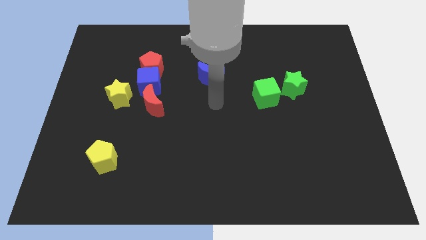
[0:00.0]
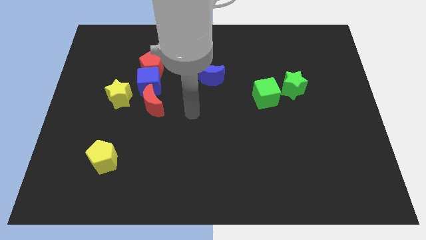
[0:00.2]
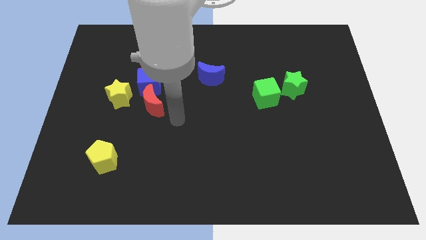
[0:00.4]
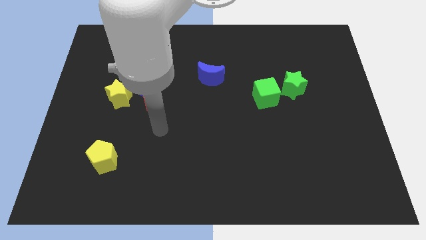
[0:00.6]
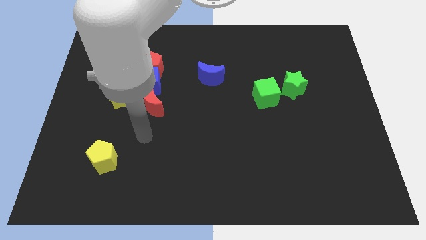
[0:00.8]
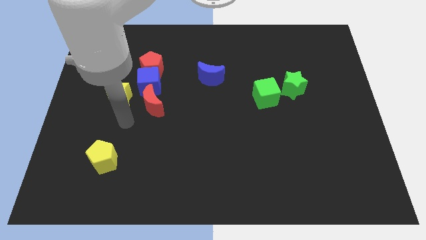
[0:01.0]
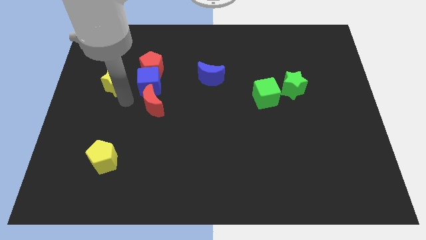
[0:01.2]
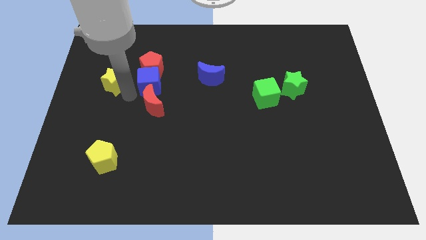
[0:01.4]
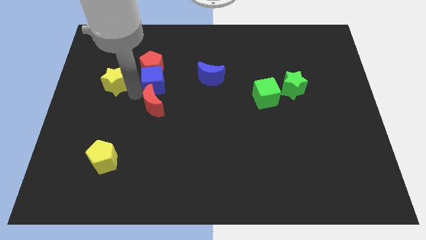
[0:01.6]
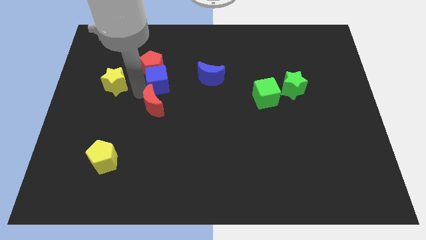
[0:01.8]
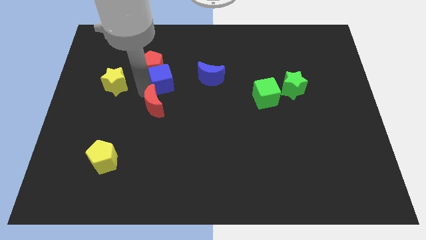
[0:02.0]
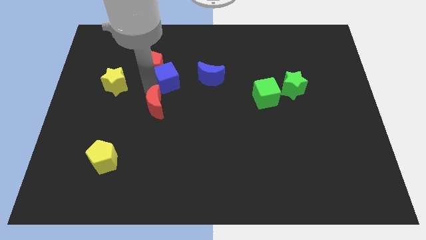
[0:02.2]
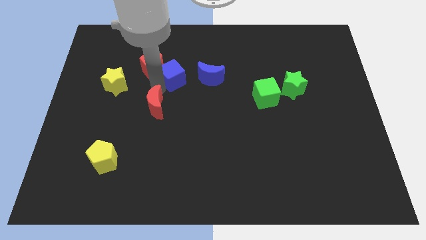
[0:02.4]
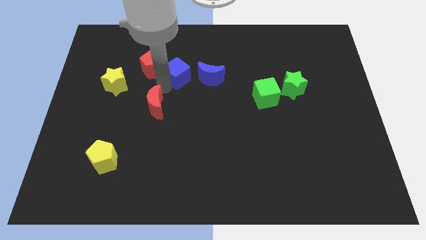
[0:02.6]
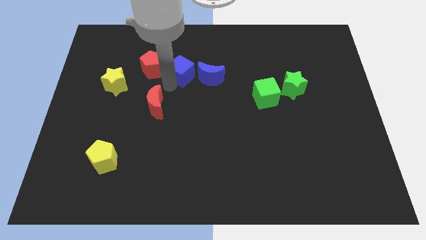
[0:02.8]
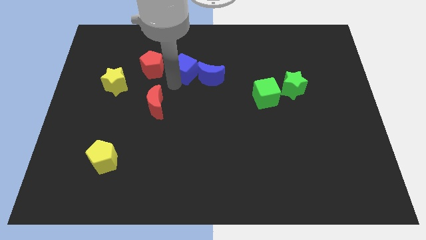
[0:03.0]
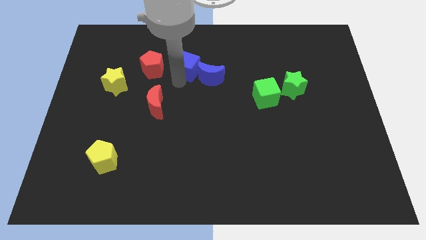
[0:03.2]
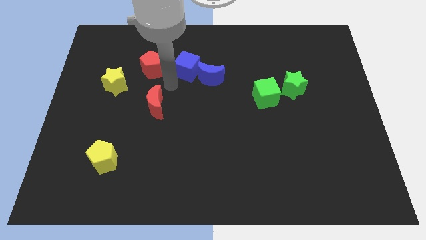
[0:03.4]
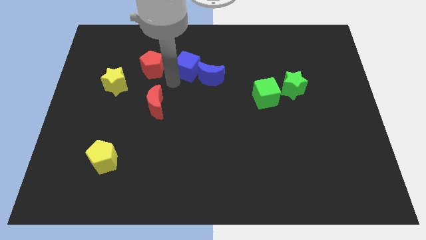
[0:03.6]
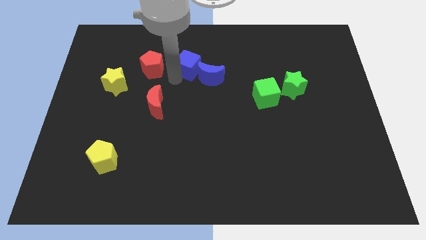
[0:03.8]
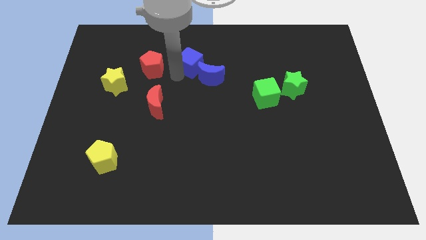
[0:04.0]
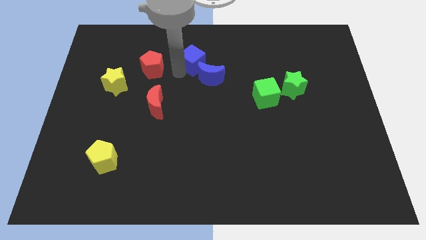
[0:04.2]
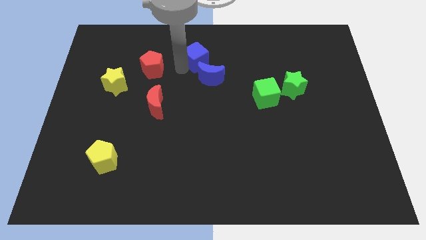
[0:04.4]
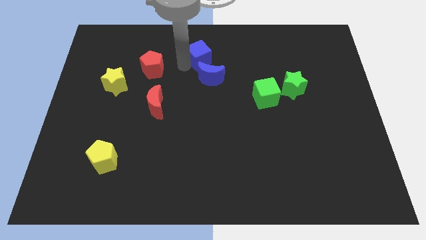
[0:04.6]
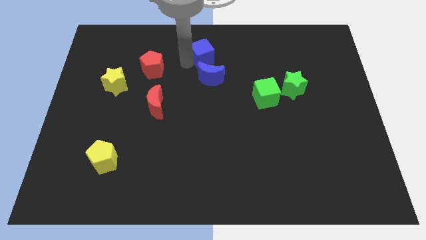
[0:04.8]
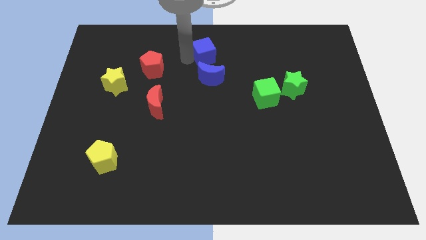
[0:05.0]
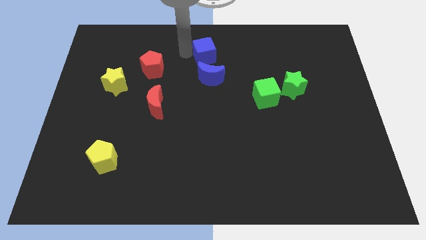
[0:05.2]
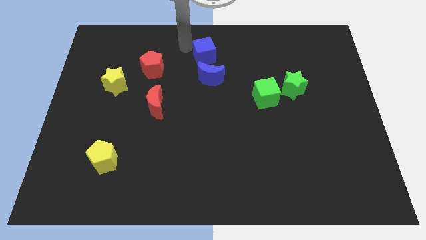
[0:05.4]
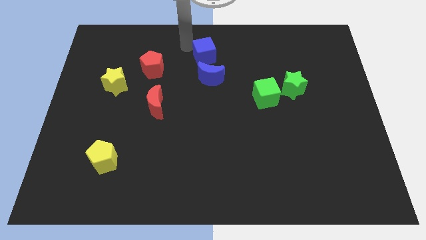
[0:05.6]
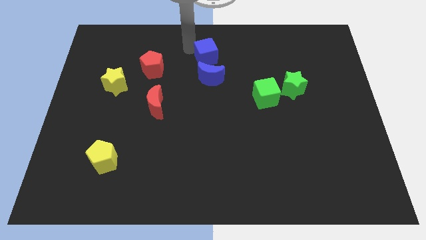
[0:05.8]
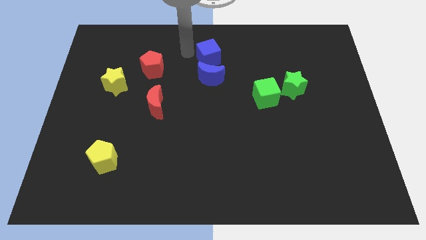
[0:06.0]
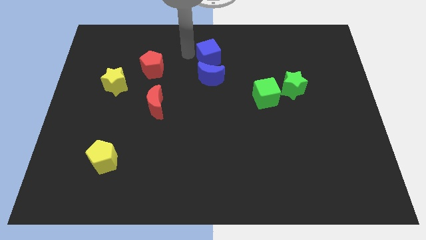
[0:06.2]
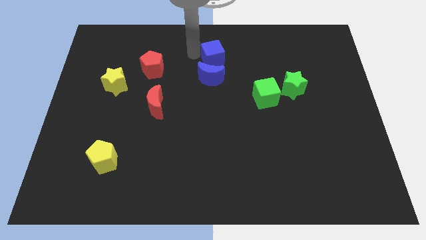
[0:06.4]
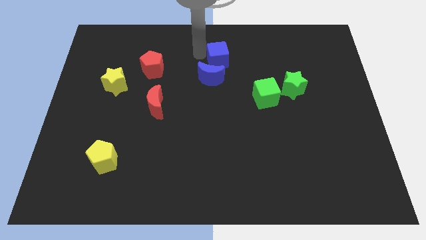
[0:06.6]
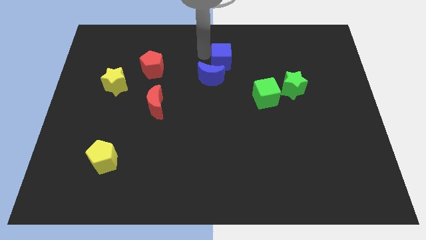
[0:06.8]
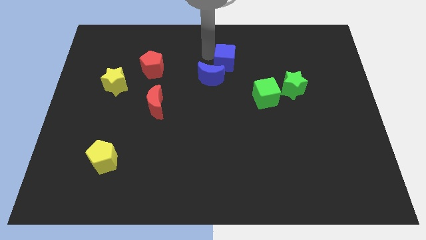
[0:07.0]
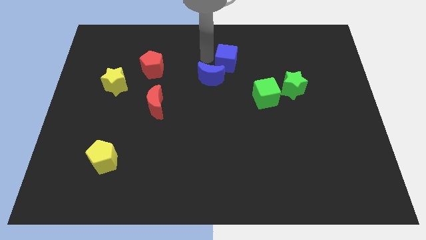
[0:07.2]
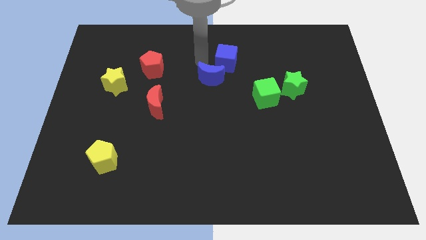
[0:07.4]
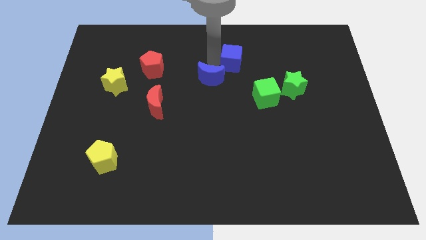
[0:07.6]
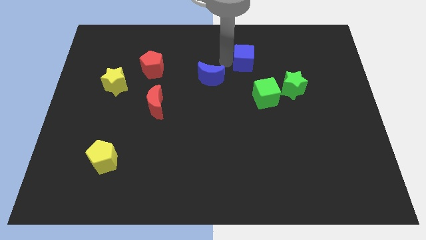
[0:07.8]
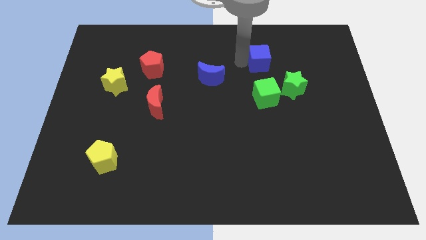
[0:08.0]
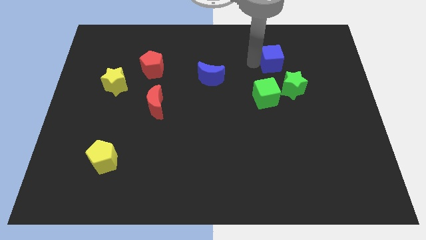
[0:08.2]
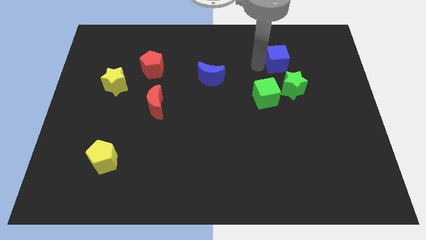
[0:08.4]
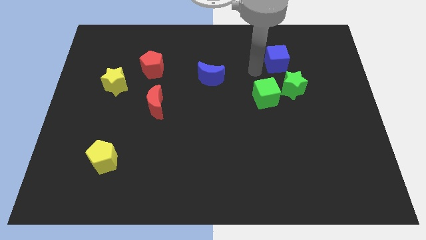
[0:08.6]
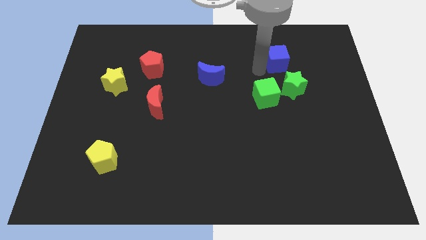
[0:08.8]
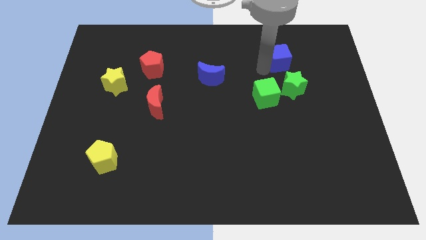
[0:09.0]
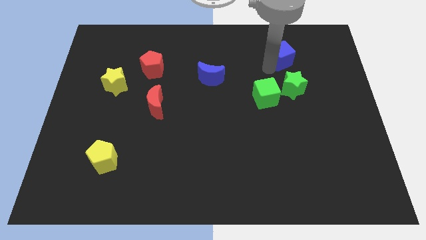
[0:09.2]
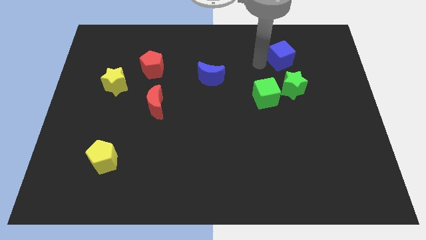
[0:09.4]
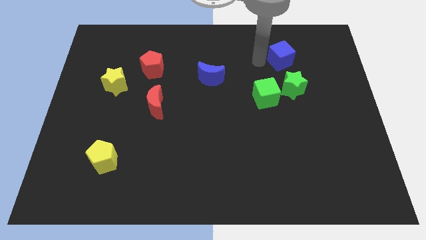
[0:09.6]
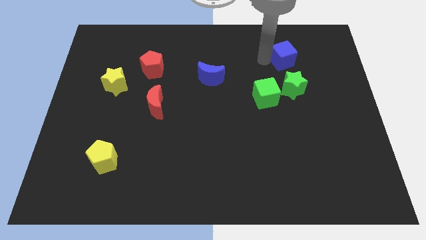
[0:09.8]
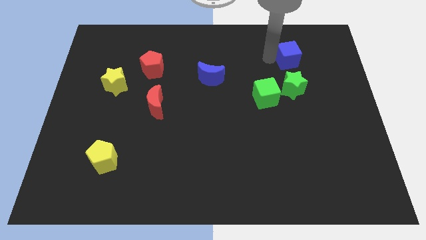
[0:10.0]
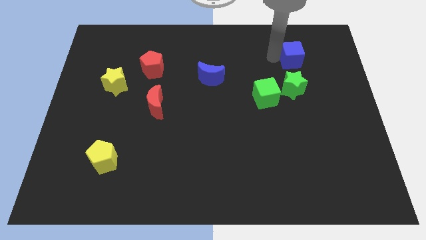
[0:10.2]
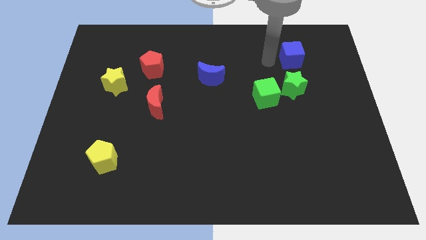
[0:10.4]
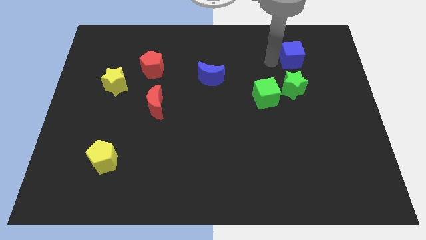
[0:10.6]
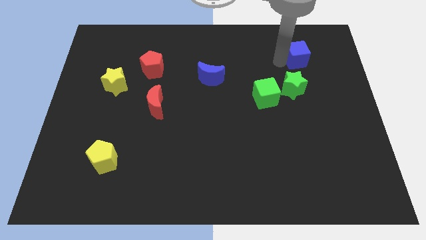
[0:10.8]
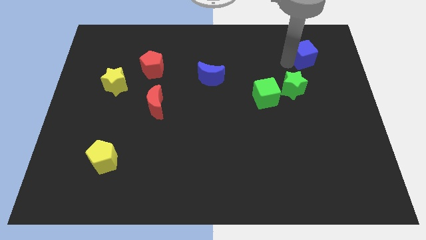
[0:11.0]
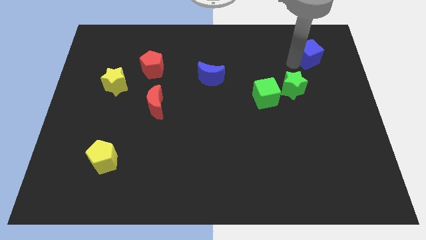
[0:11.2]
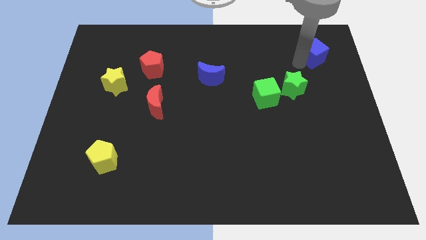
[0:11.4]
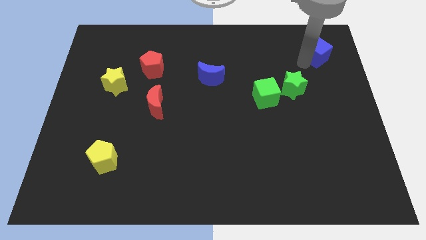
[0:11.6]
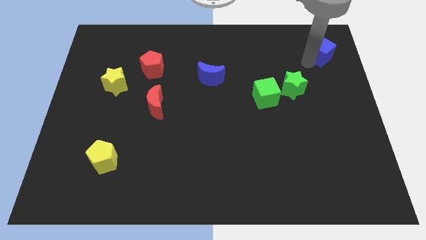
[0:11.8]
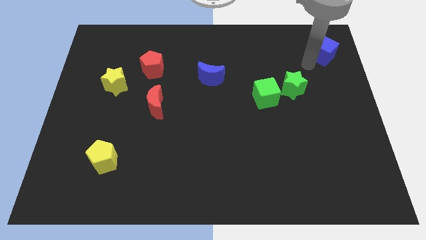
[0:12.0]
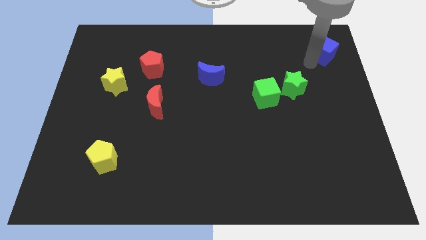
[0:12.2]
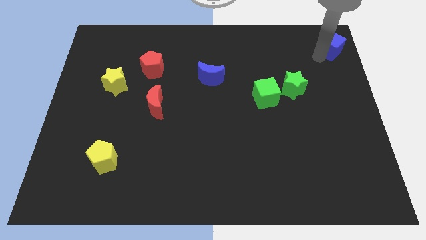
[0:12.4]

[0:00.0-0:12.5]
put the blue cube to the top right

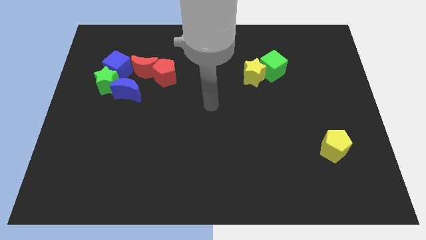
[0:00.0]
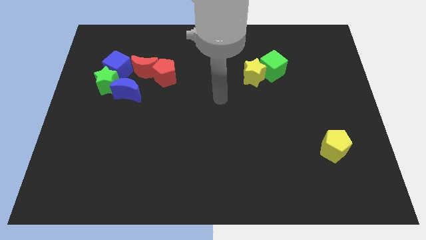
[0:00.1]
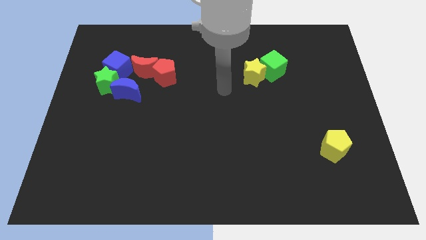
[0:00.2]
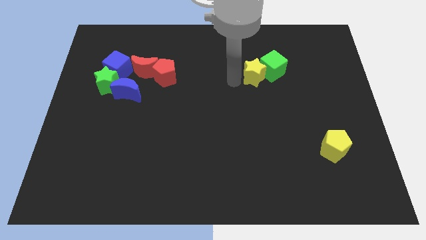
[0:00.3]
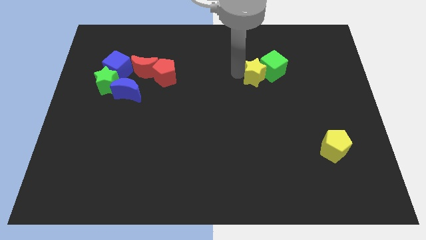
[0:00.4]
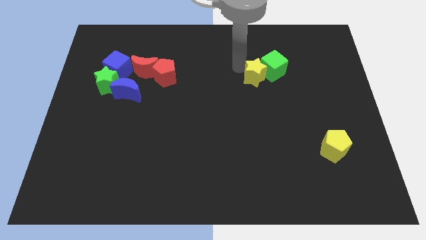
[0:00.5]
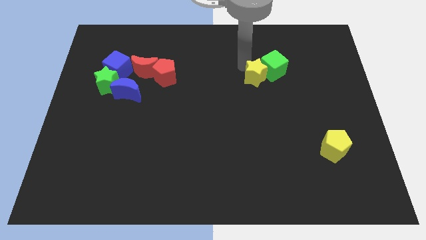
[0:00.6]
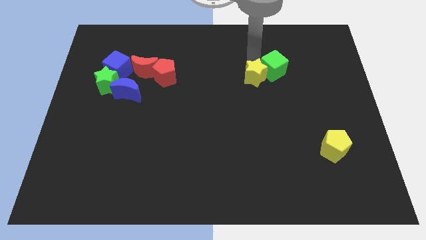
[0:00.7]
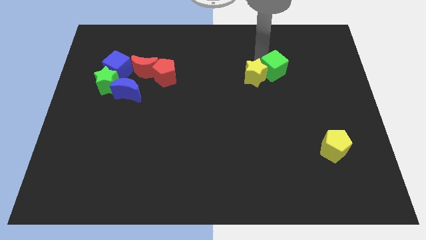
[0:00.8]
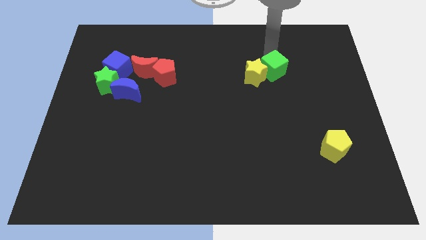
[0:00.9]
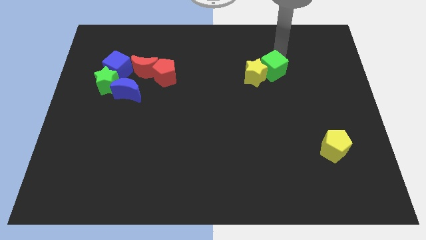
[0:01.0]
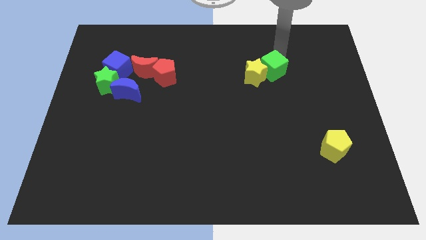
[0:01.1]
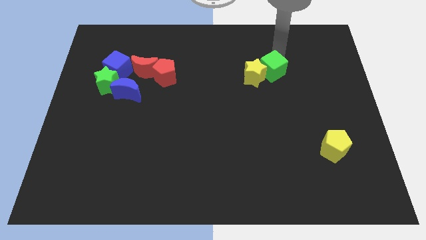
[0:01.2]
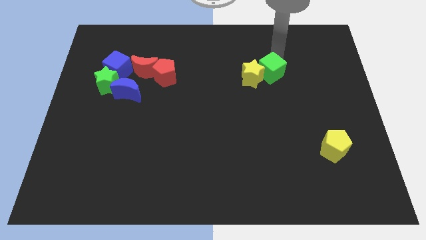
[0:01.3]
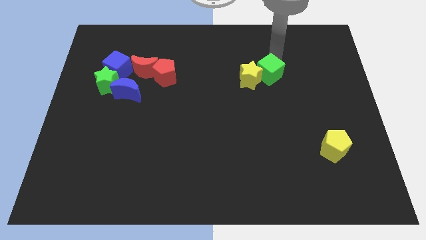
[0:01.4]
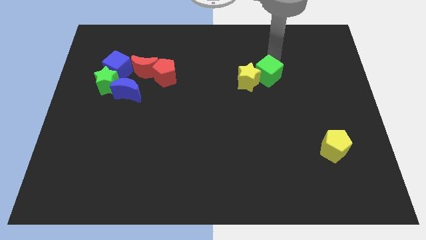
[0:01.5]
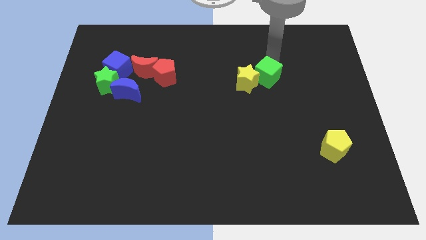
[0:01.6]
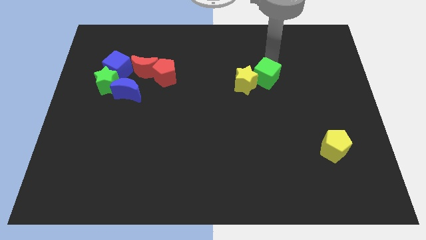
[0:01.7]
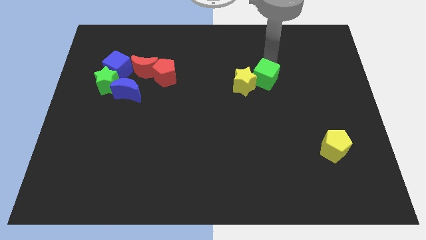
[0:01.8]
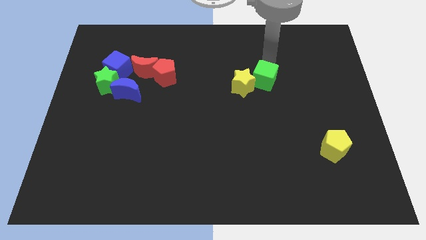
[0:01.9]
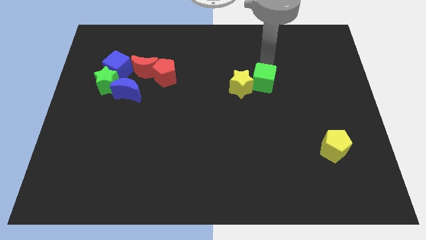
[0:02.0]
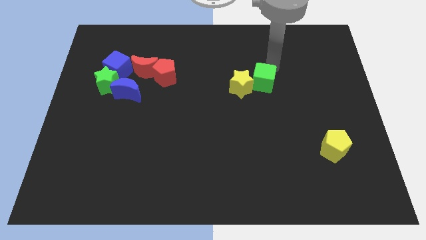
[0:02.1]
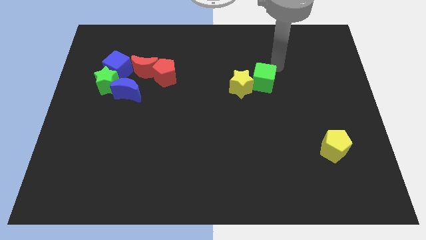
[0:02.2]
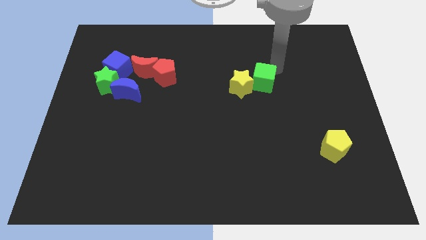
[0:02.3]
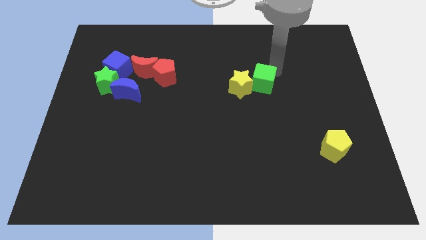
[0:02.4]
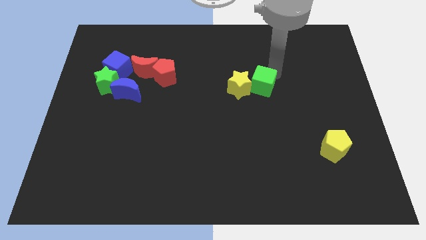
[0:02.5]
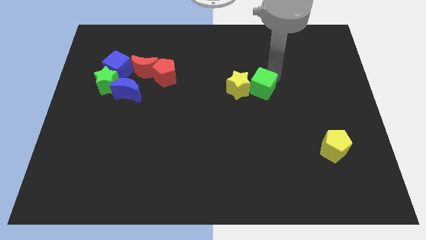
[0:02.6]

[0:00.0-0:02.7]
put the green cube to the middle of the board
